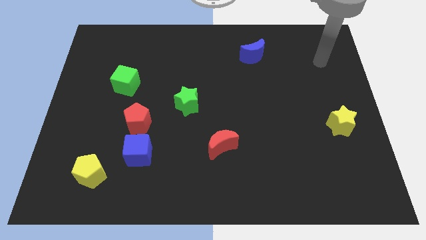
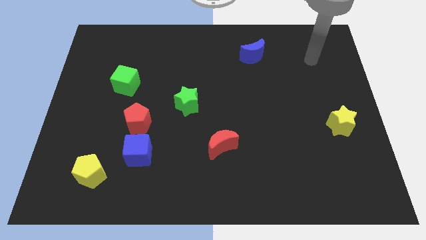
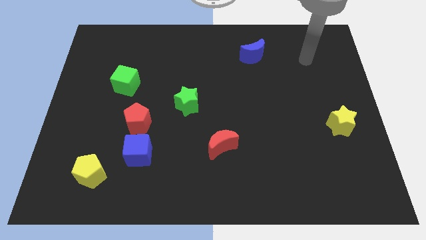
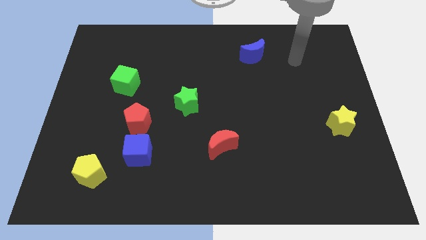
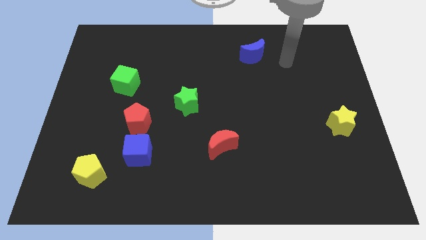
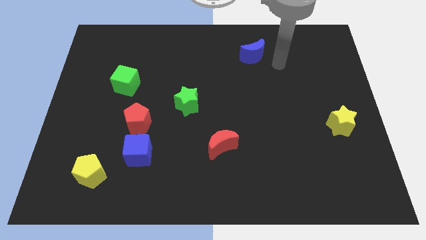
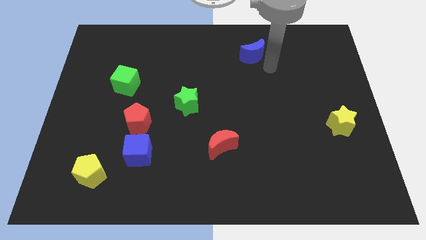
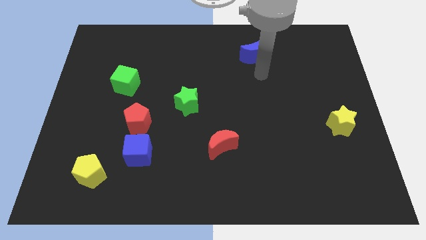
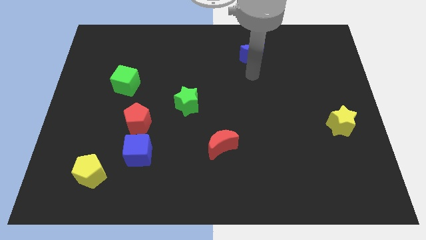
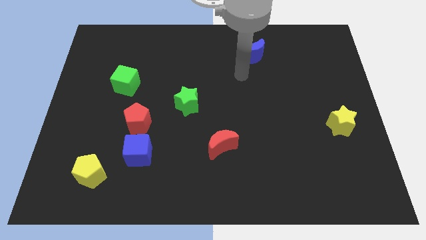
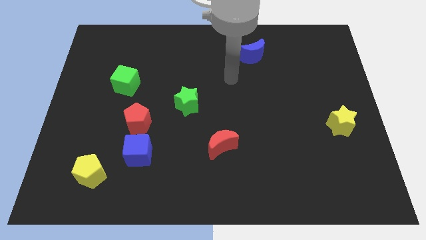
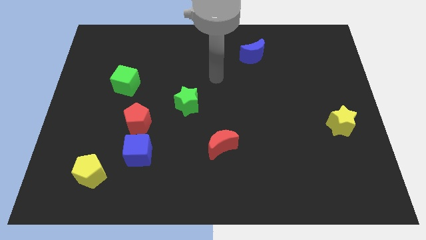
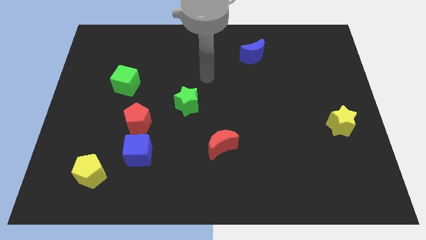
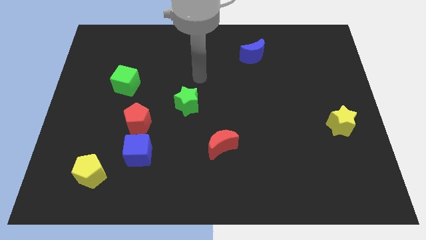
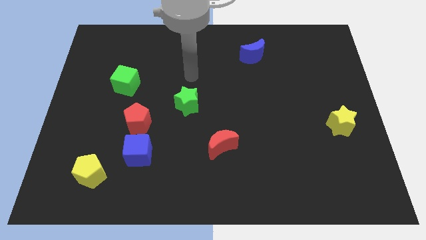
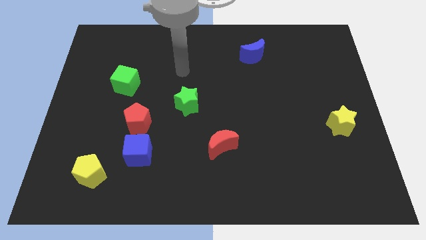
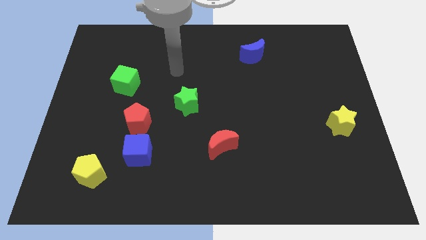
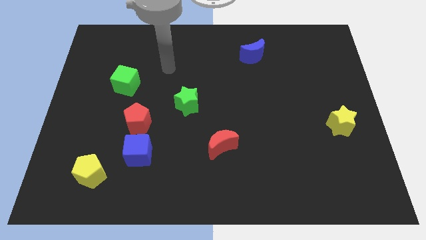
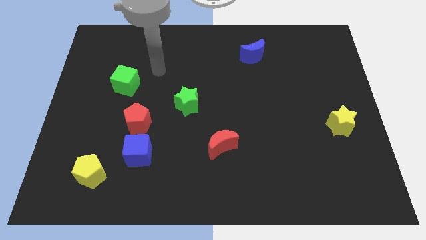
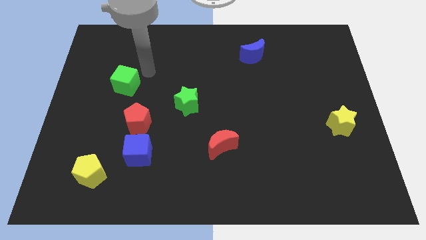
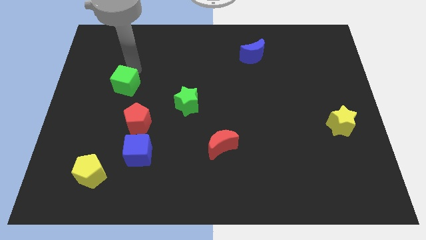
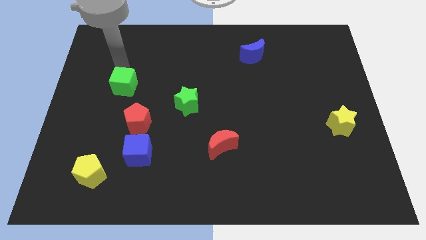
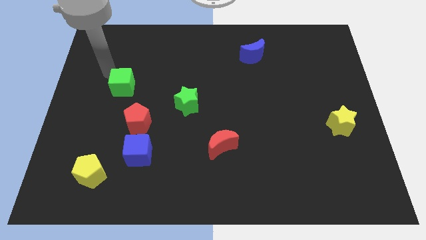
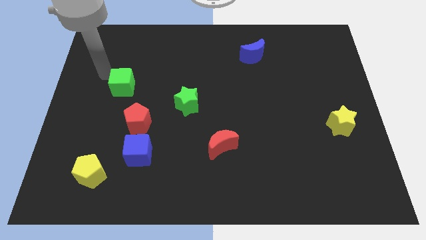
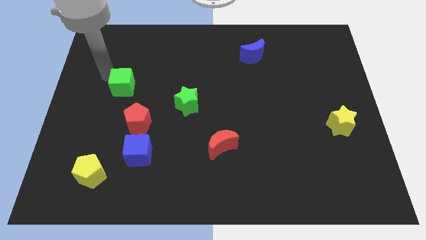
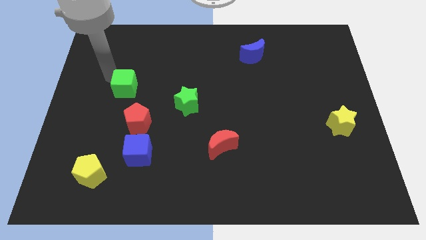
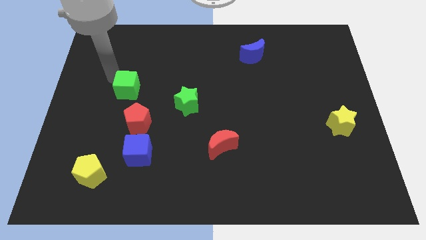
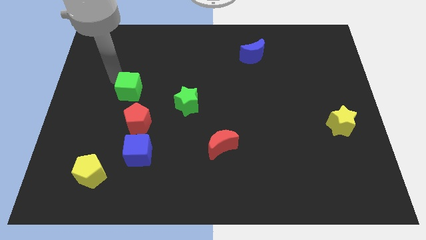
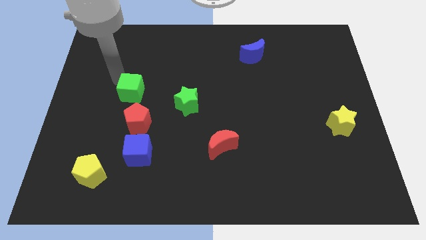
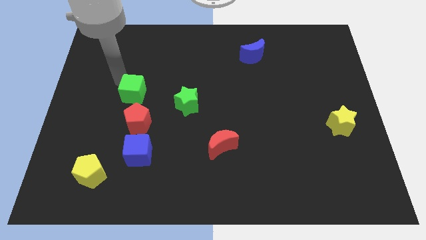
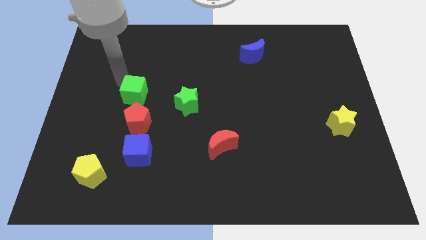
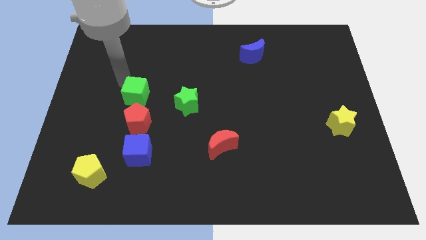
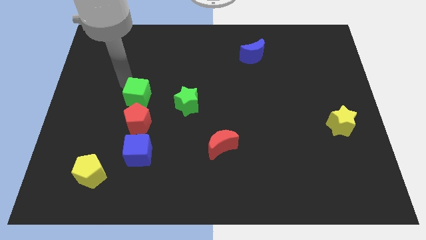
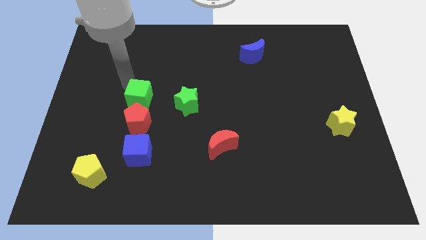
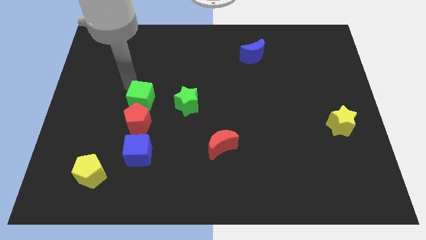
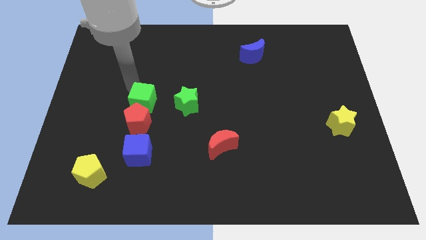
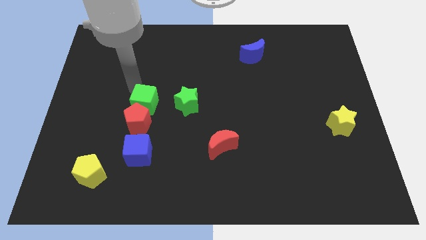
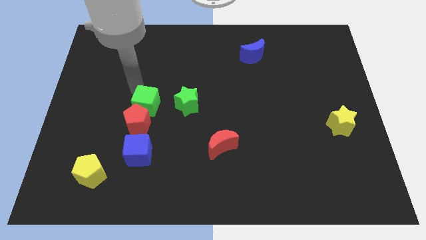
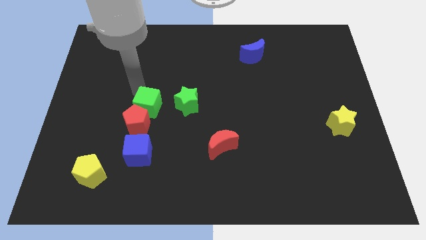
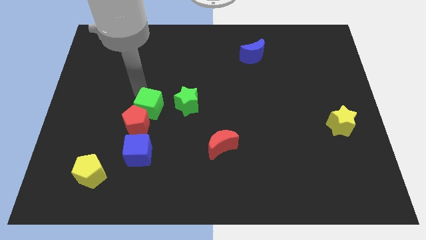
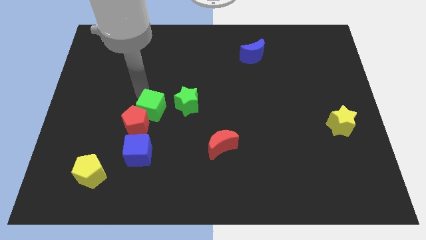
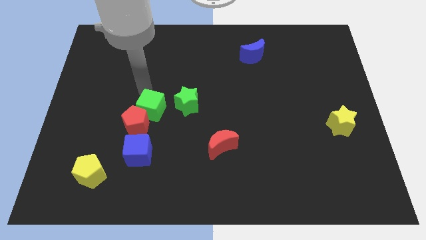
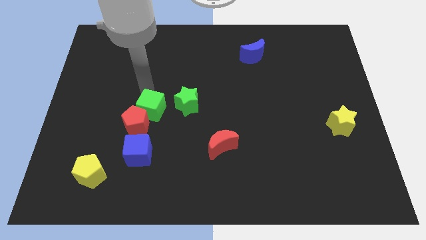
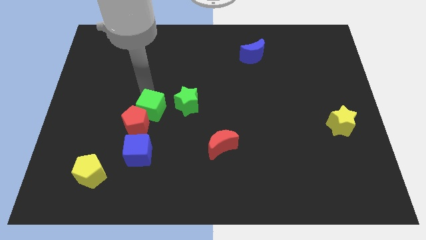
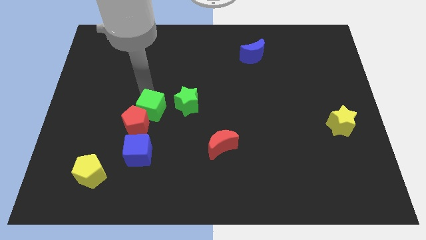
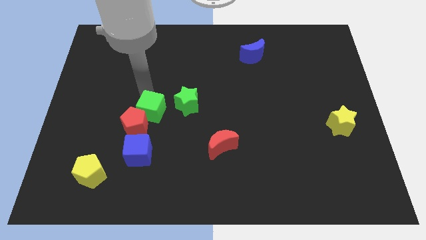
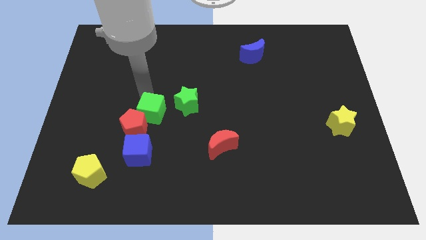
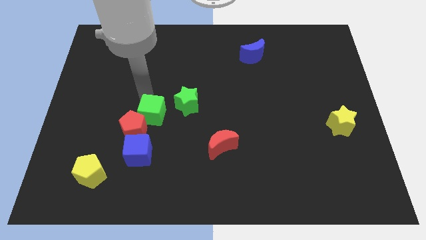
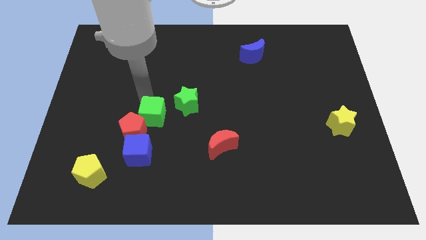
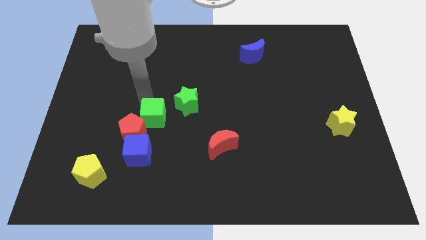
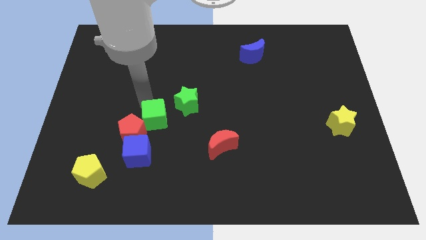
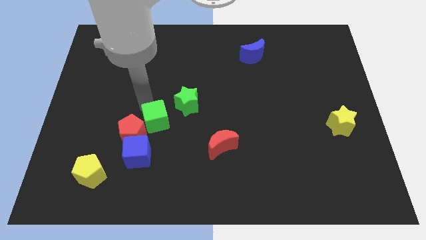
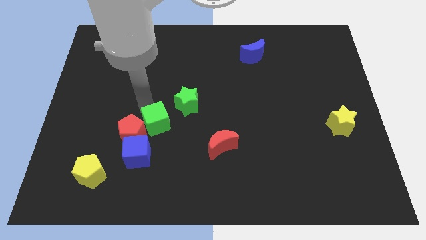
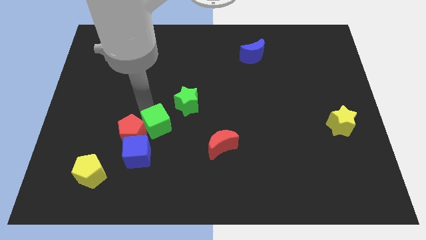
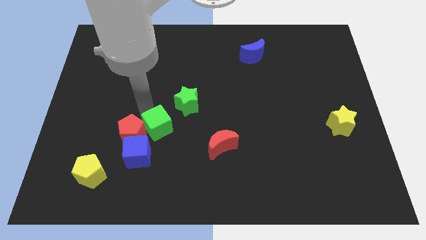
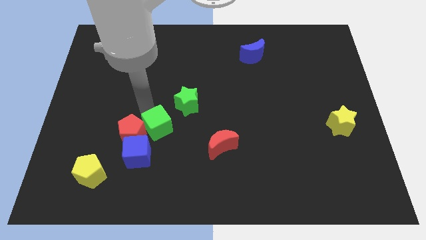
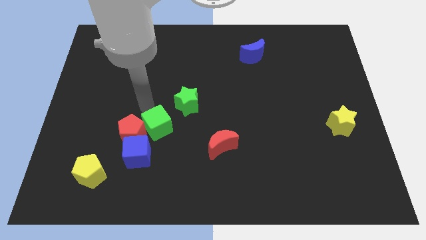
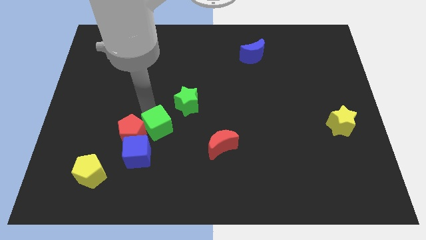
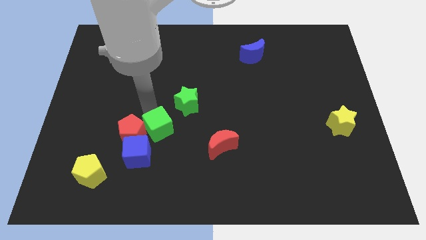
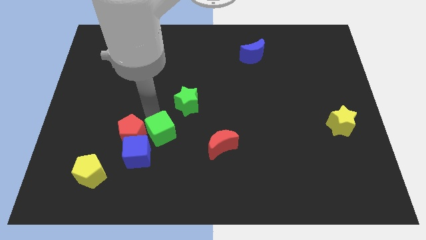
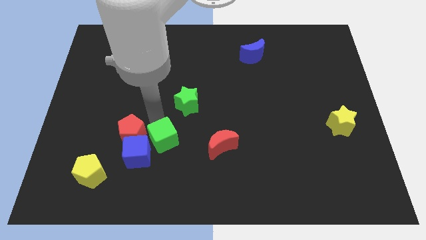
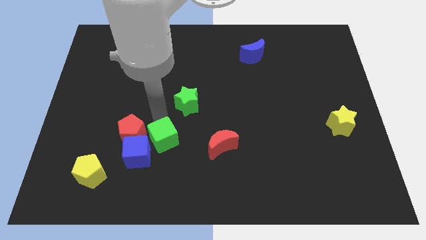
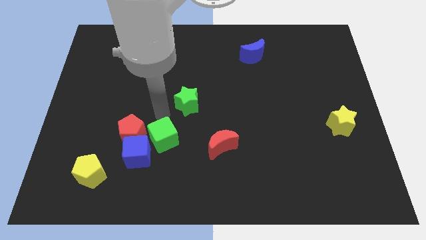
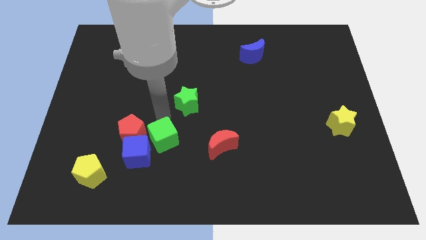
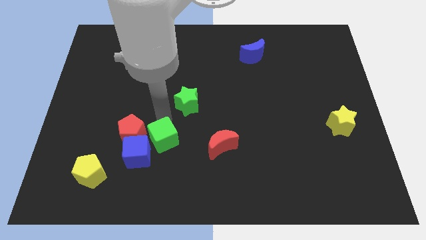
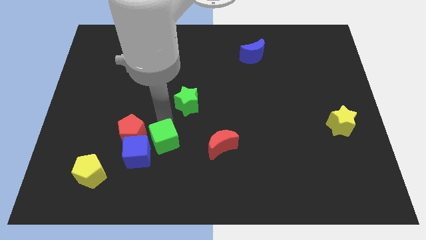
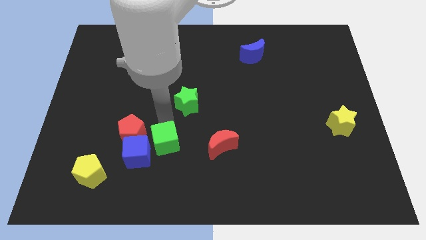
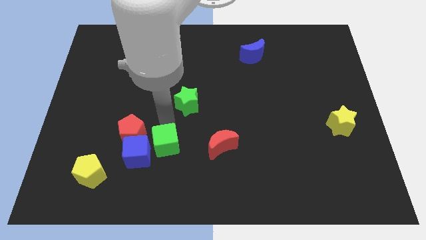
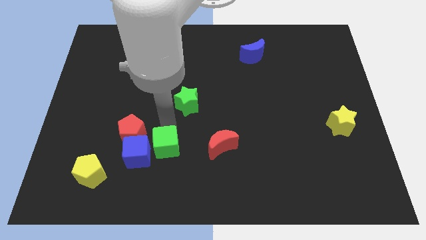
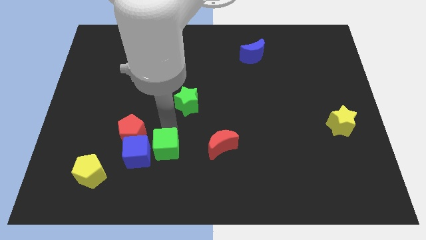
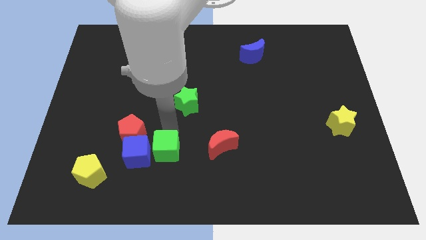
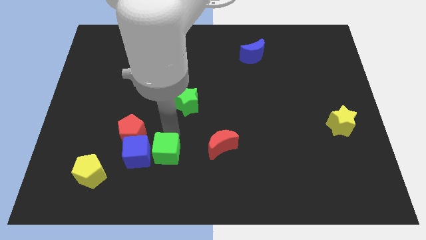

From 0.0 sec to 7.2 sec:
move the green cube to the bottom right of the blue cube

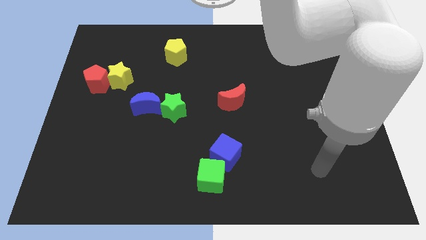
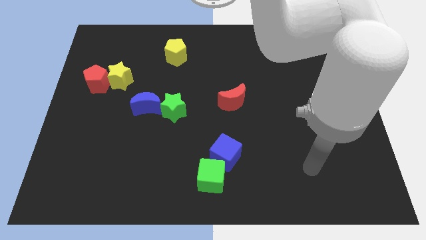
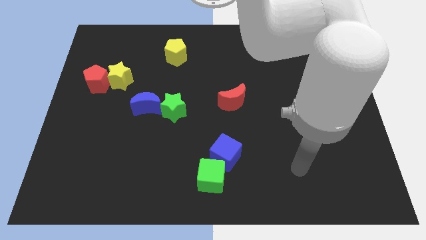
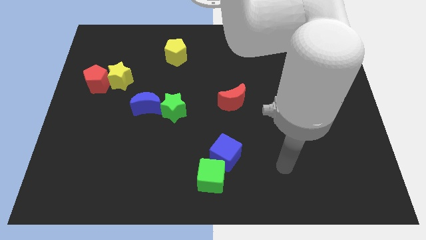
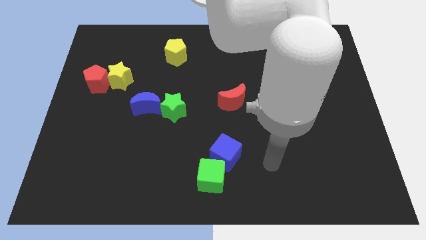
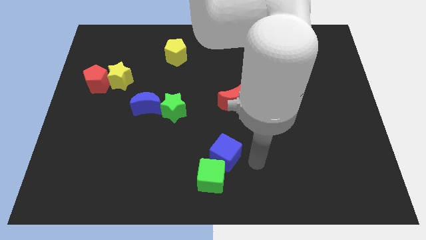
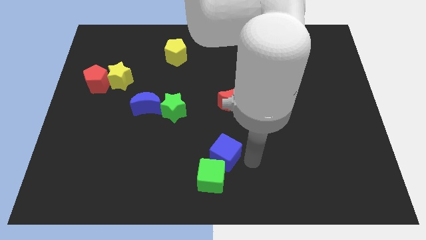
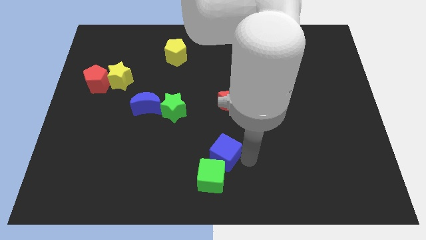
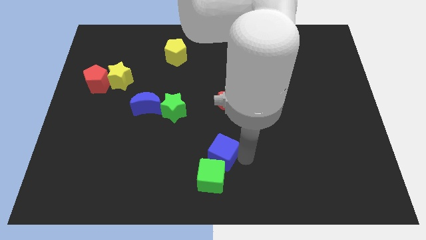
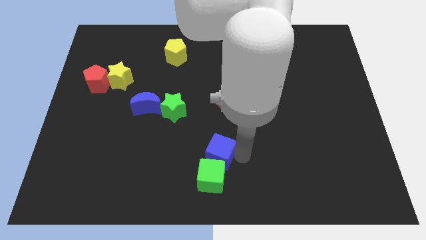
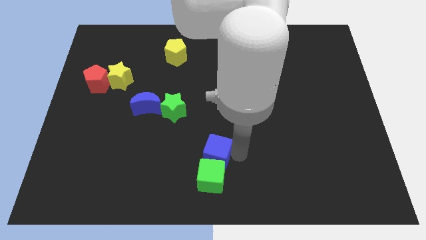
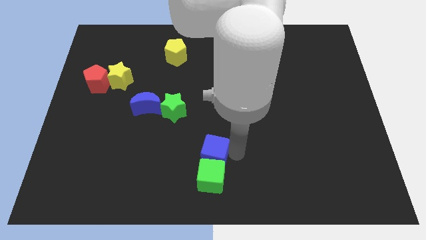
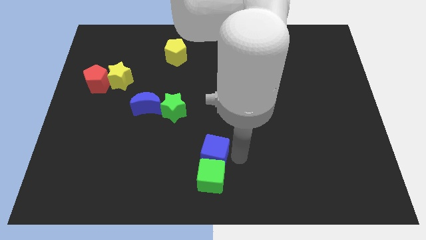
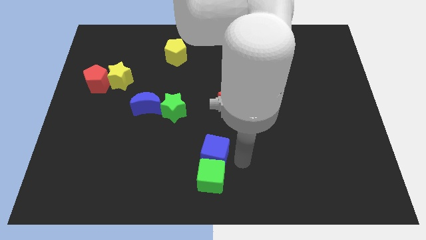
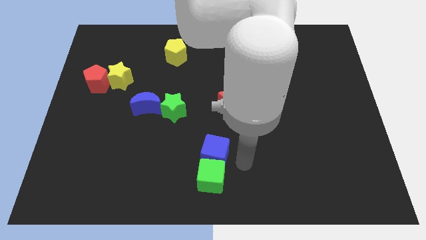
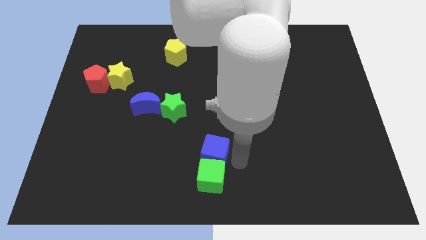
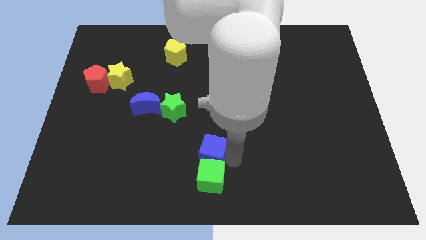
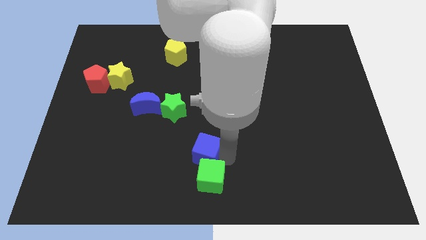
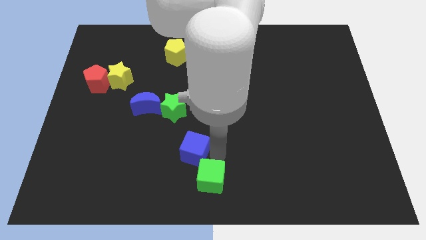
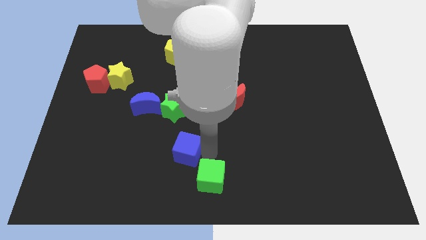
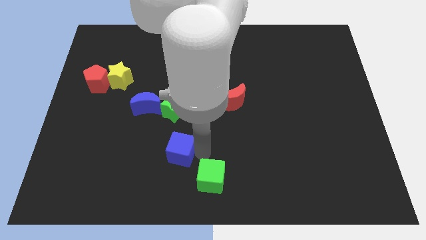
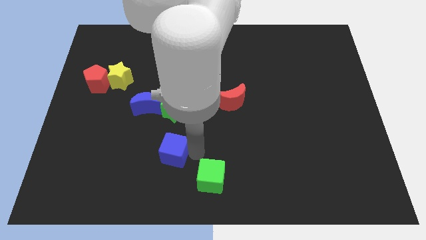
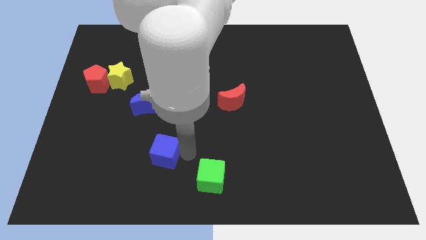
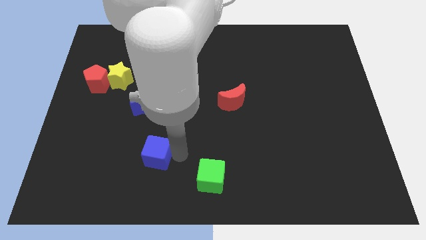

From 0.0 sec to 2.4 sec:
push the blue cube to the bottom side of the blue moon
